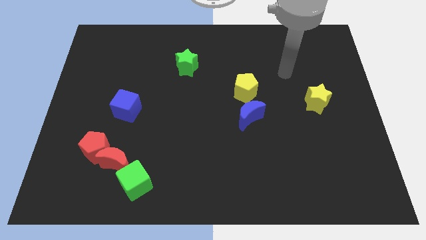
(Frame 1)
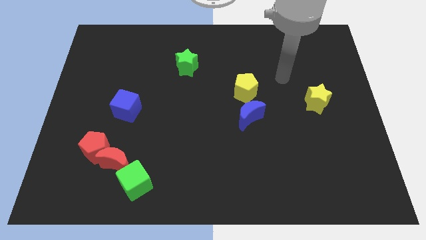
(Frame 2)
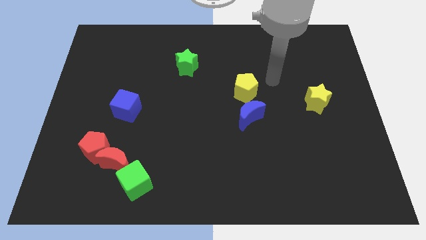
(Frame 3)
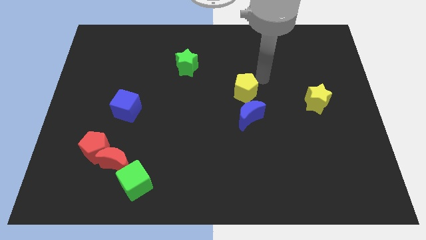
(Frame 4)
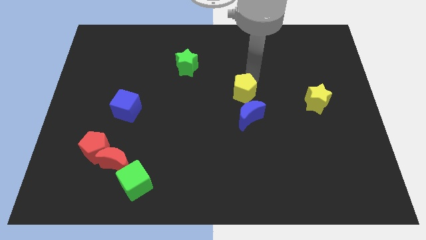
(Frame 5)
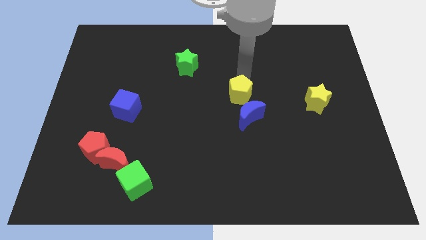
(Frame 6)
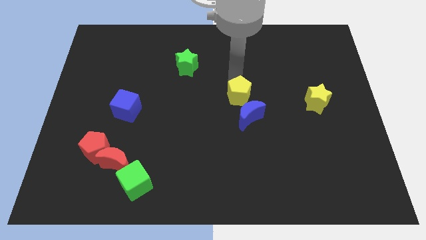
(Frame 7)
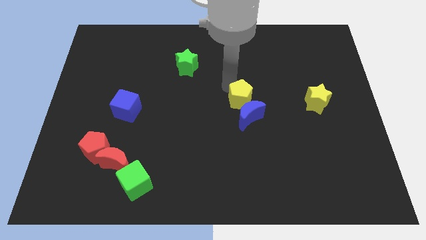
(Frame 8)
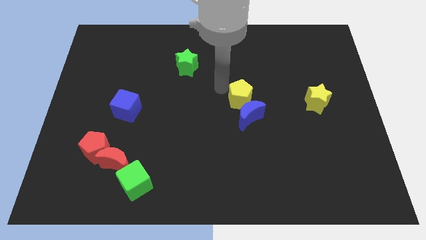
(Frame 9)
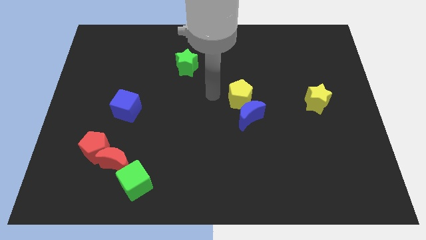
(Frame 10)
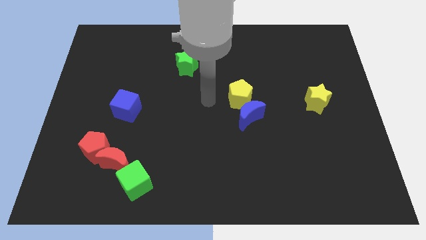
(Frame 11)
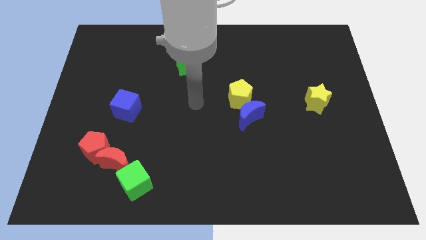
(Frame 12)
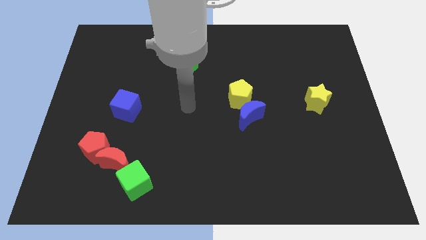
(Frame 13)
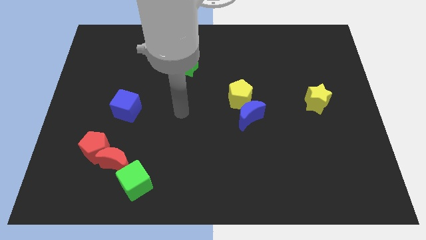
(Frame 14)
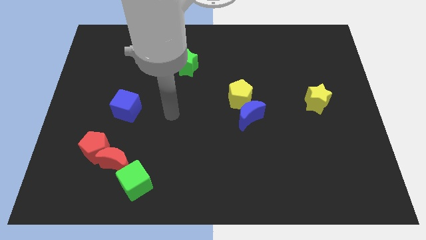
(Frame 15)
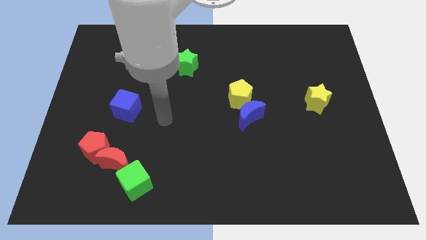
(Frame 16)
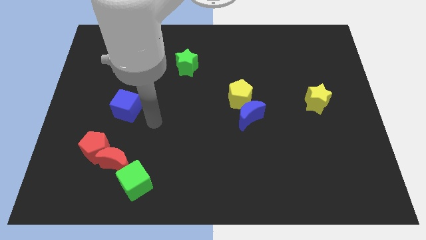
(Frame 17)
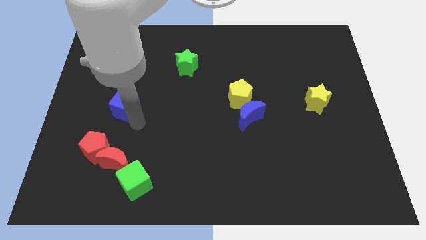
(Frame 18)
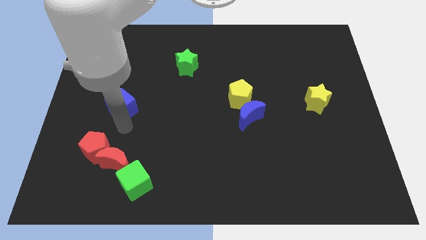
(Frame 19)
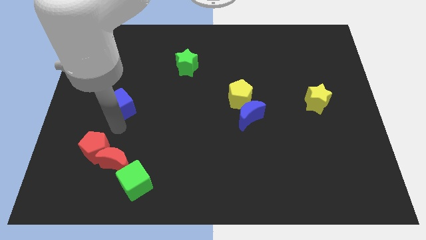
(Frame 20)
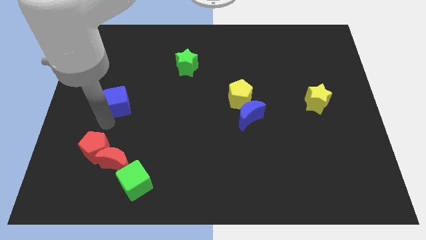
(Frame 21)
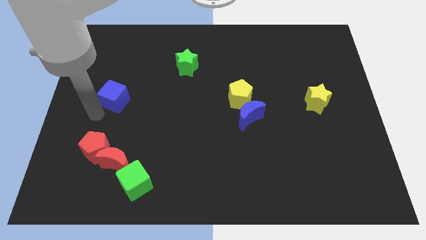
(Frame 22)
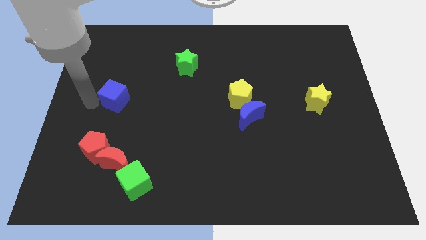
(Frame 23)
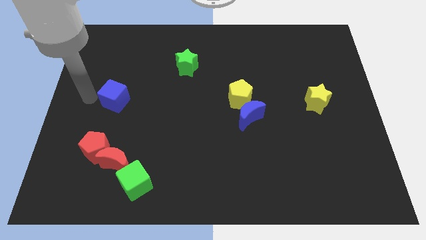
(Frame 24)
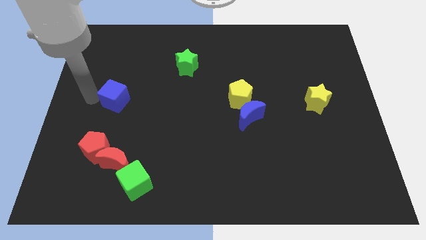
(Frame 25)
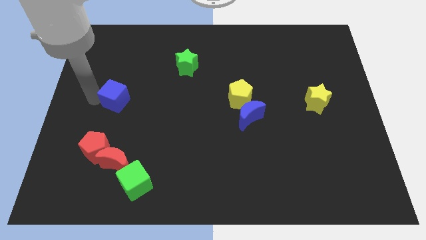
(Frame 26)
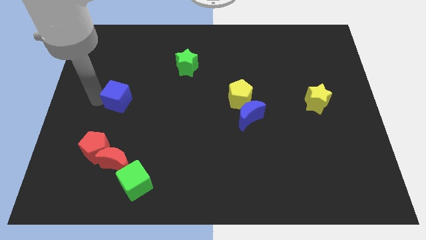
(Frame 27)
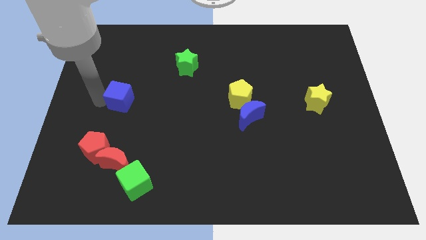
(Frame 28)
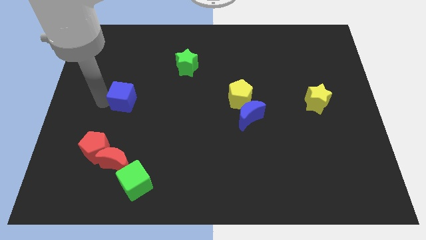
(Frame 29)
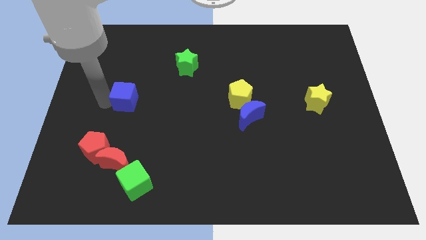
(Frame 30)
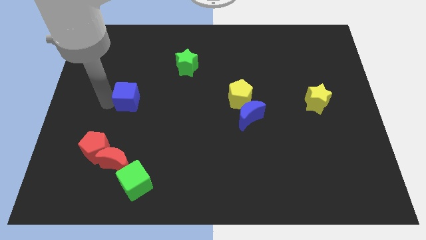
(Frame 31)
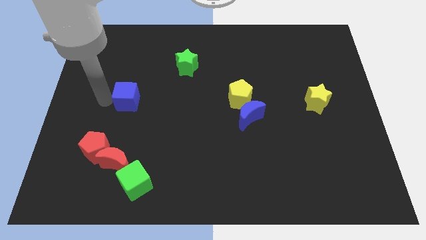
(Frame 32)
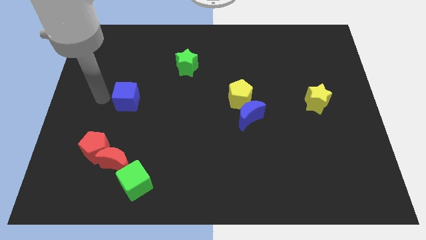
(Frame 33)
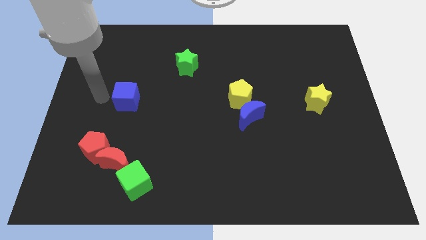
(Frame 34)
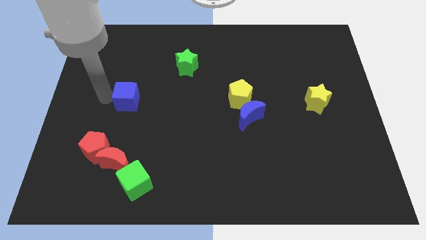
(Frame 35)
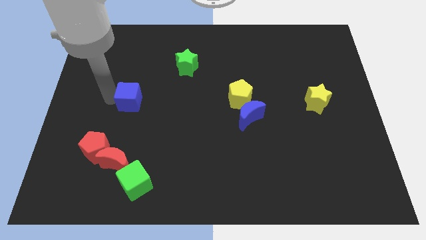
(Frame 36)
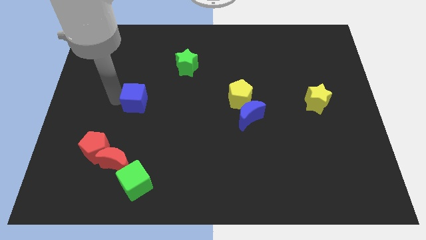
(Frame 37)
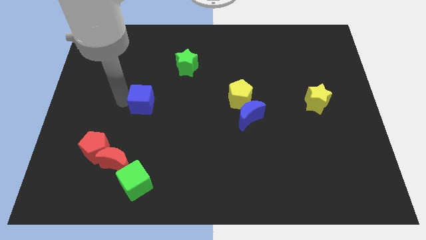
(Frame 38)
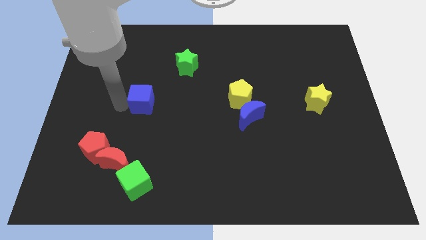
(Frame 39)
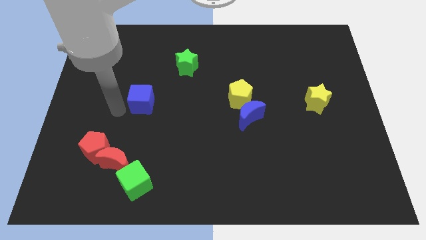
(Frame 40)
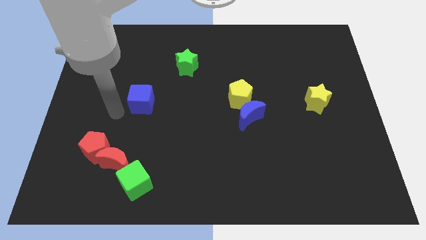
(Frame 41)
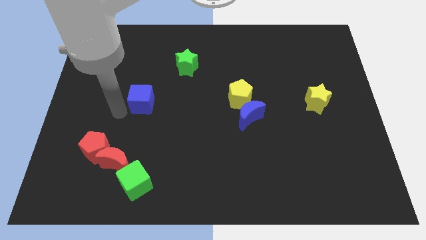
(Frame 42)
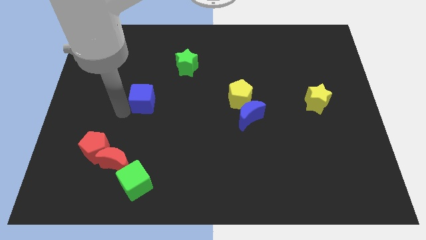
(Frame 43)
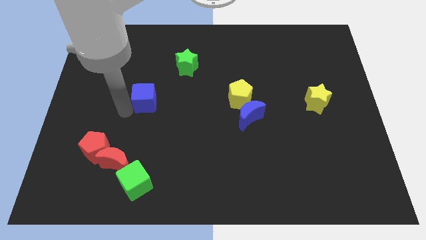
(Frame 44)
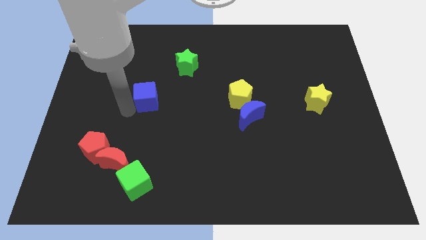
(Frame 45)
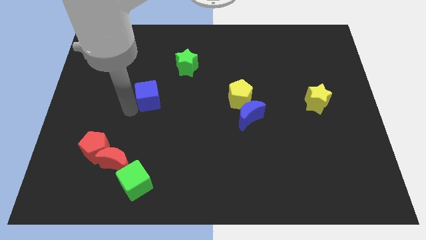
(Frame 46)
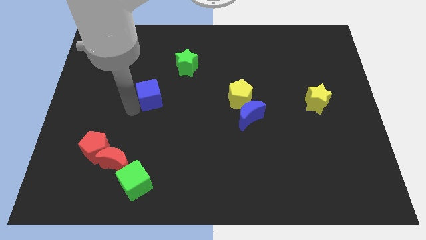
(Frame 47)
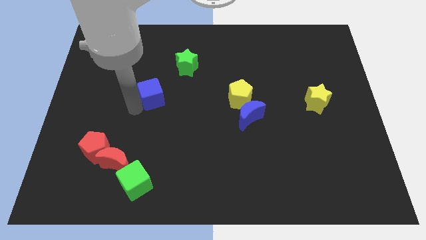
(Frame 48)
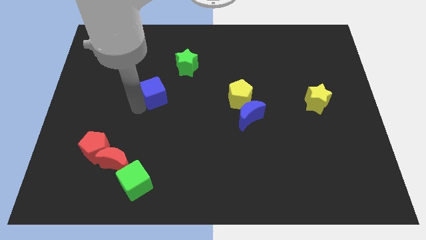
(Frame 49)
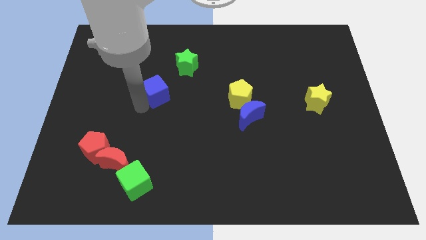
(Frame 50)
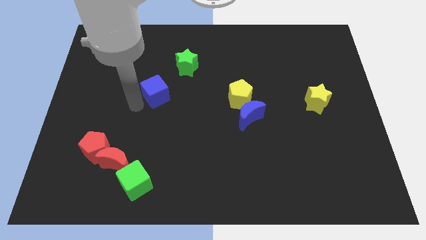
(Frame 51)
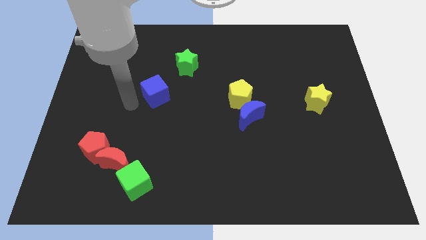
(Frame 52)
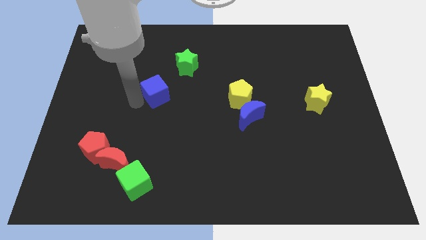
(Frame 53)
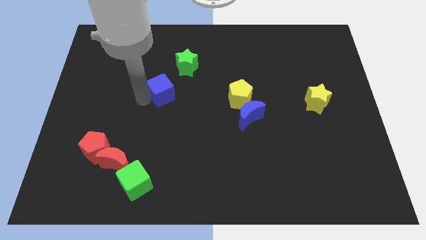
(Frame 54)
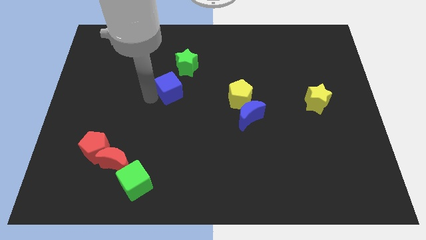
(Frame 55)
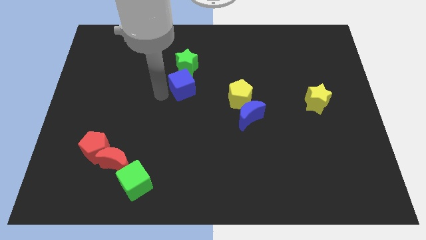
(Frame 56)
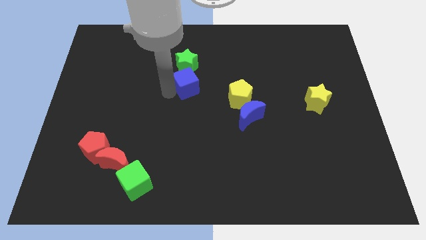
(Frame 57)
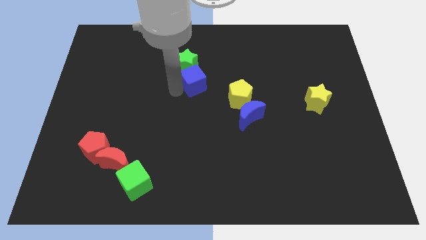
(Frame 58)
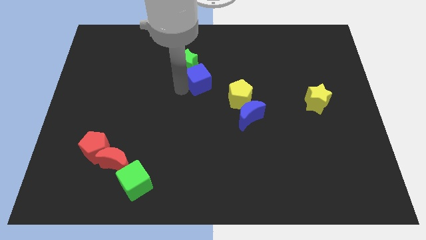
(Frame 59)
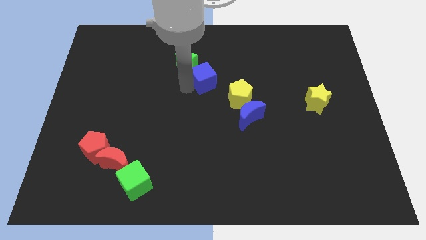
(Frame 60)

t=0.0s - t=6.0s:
put the blue cube just right of the green star
